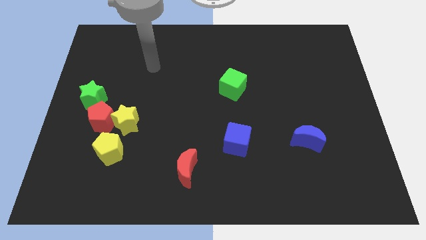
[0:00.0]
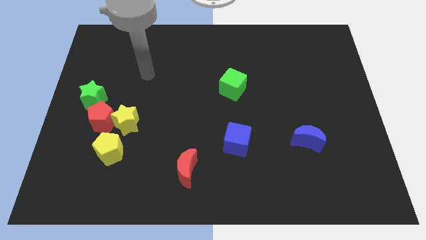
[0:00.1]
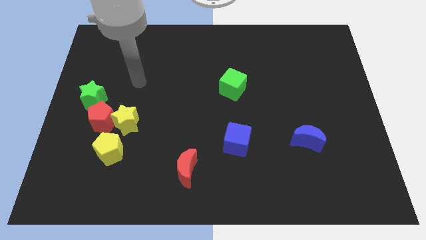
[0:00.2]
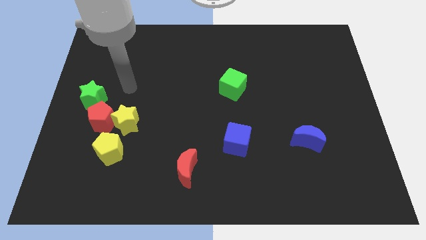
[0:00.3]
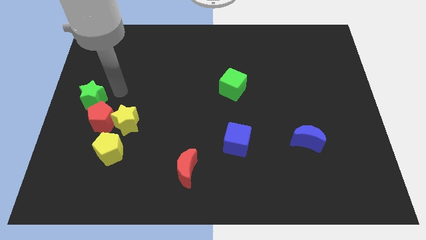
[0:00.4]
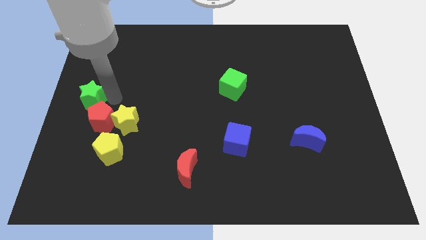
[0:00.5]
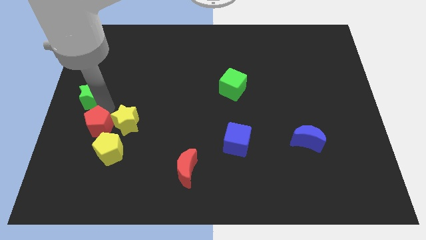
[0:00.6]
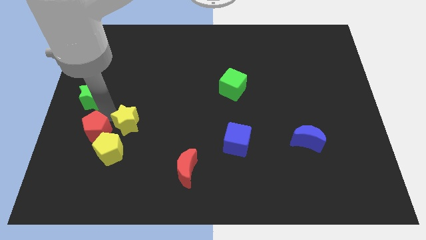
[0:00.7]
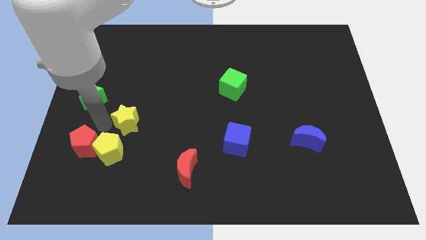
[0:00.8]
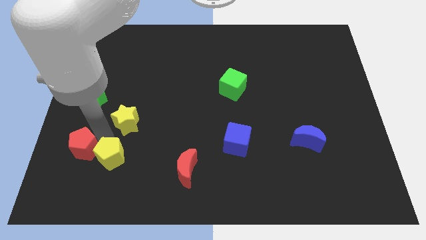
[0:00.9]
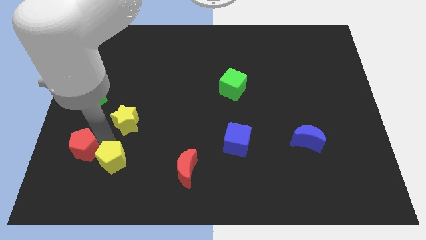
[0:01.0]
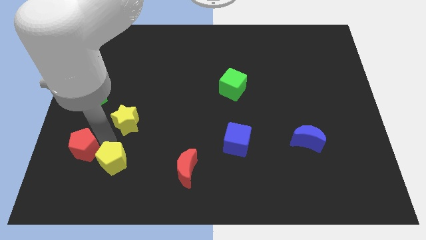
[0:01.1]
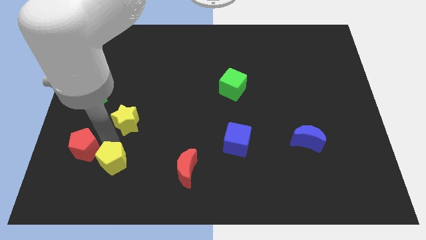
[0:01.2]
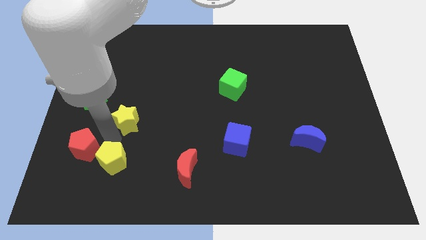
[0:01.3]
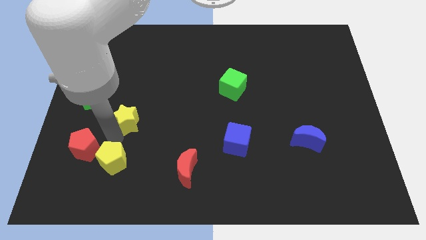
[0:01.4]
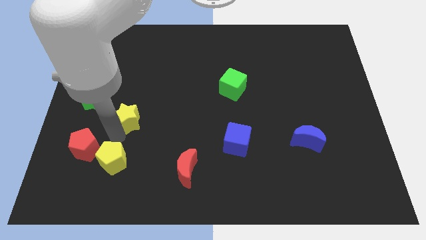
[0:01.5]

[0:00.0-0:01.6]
pull the yellow star apart from the red pentagon and yellow pentagon

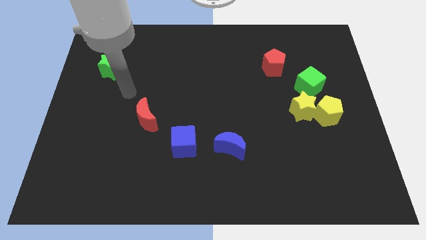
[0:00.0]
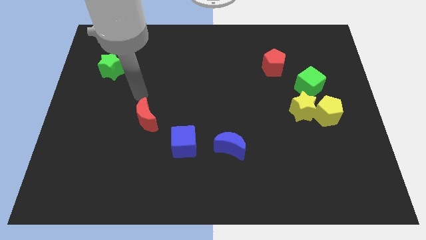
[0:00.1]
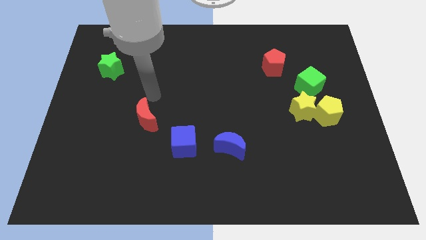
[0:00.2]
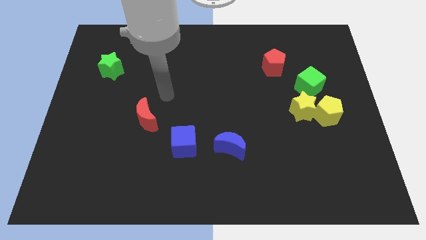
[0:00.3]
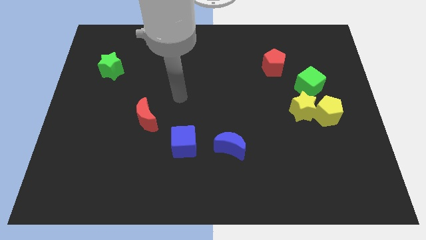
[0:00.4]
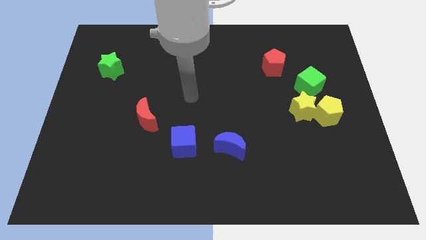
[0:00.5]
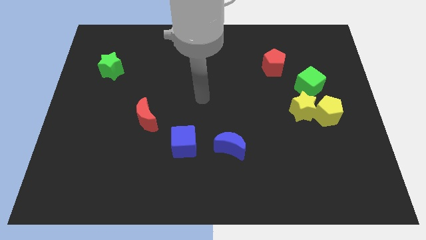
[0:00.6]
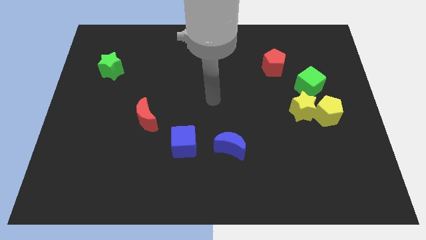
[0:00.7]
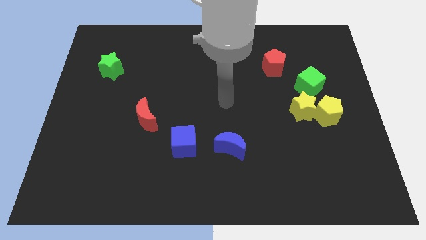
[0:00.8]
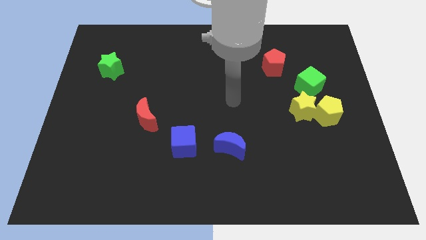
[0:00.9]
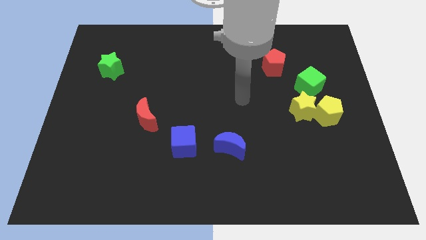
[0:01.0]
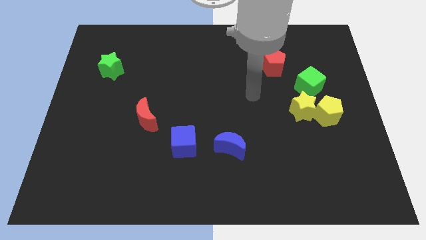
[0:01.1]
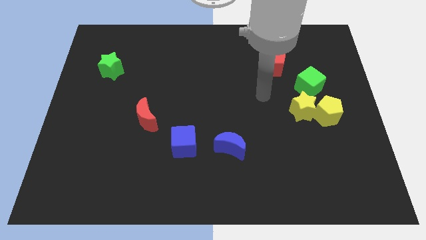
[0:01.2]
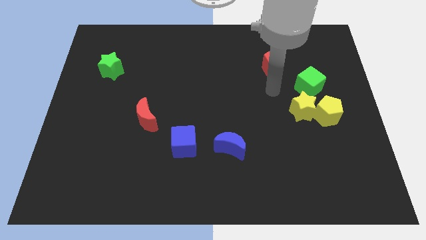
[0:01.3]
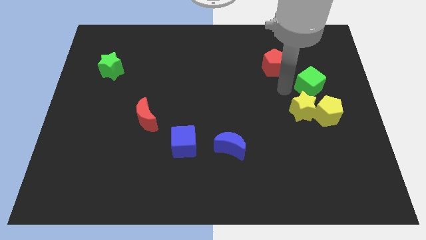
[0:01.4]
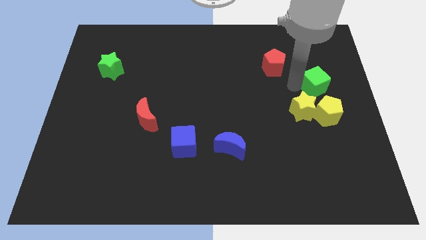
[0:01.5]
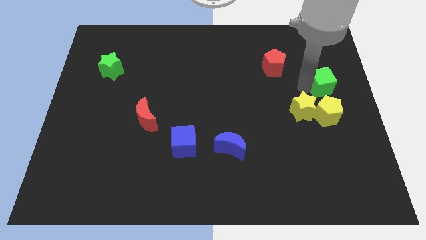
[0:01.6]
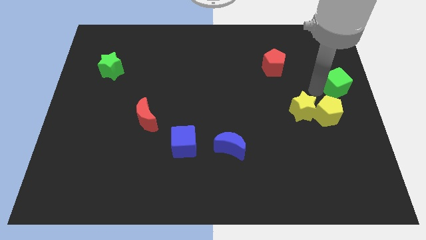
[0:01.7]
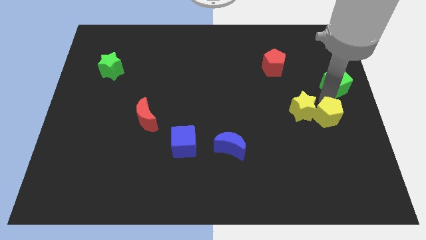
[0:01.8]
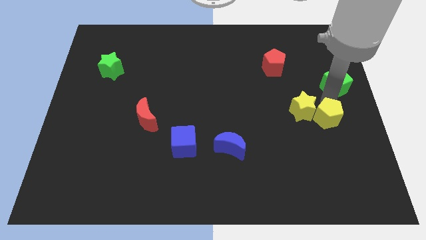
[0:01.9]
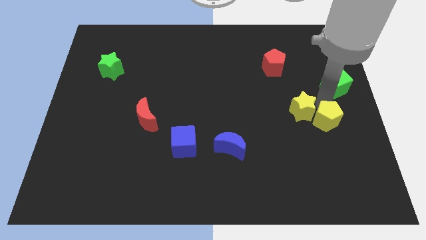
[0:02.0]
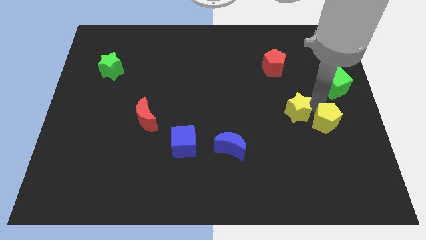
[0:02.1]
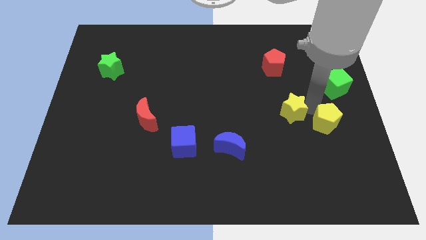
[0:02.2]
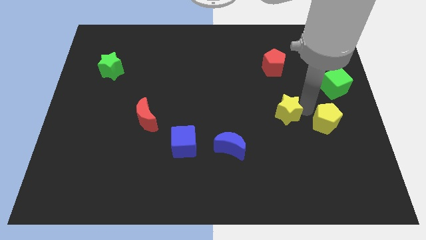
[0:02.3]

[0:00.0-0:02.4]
separate the yellow star from the yellow pentagon and green cube

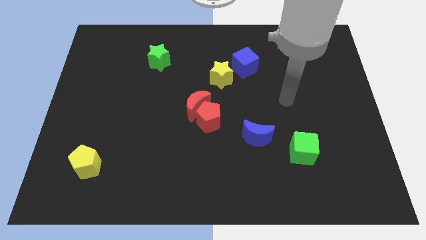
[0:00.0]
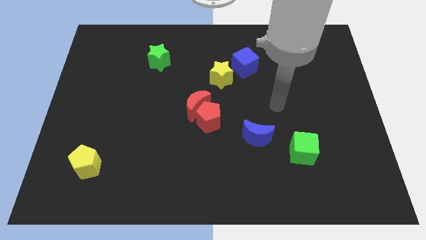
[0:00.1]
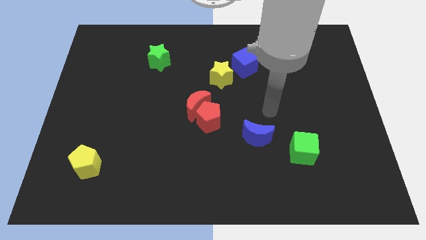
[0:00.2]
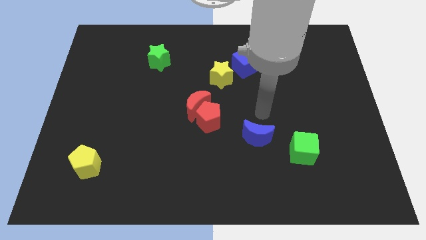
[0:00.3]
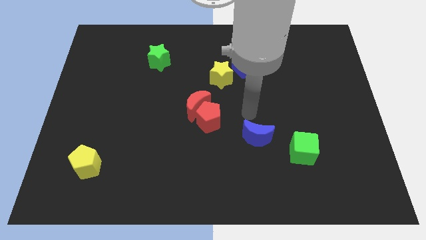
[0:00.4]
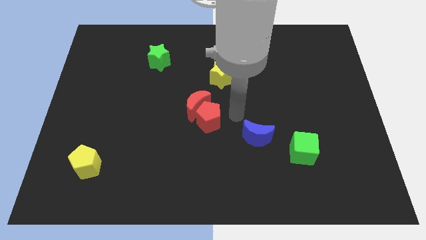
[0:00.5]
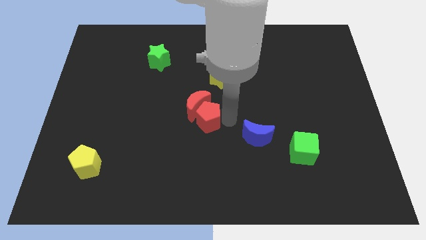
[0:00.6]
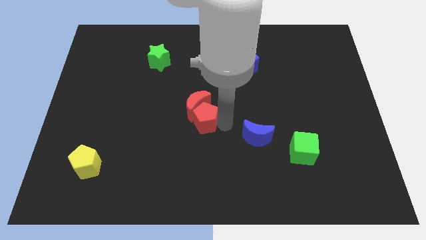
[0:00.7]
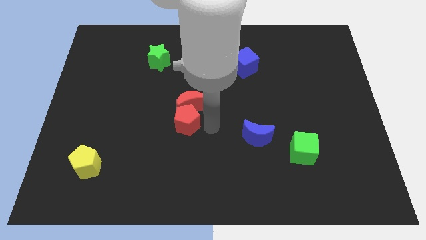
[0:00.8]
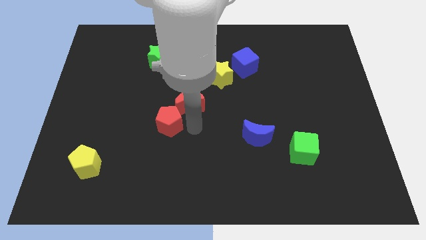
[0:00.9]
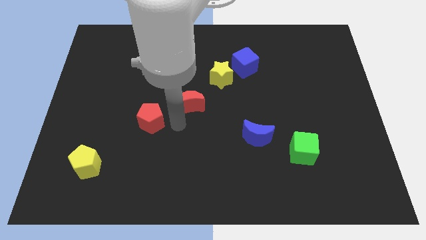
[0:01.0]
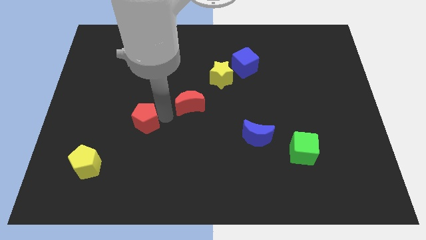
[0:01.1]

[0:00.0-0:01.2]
pull the red moon apart from the red pentagon

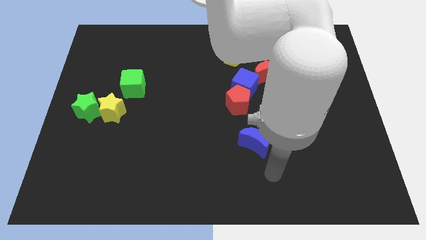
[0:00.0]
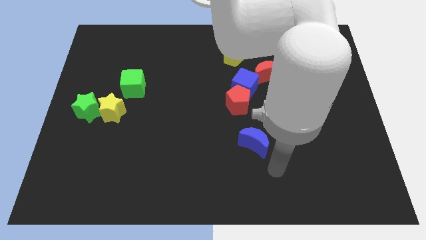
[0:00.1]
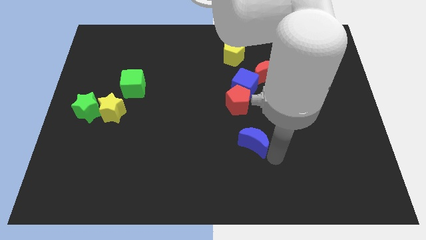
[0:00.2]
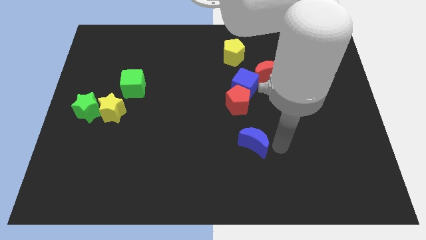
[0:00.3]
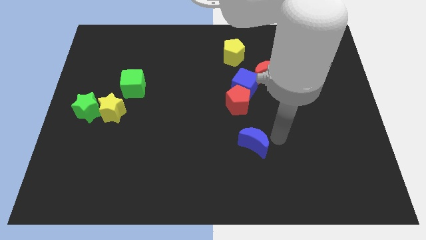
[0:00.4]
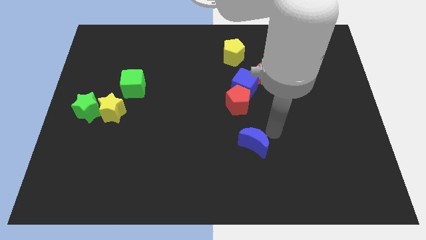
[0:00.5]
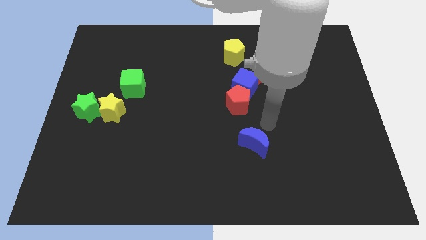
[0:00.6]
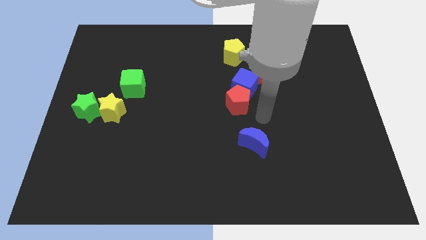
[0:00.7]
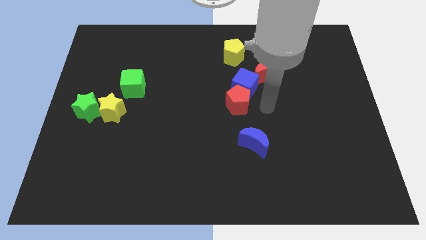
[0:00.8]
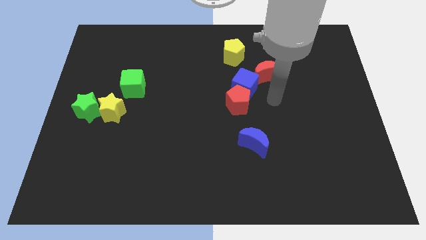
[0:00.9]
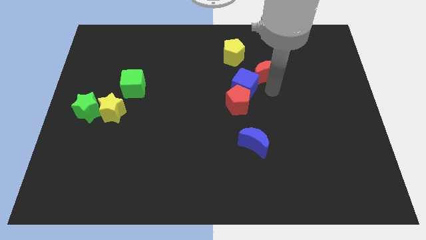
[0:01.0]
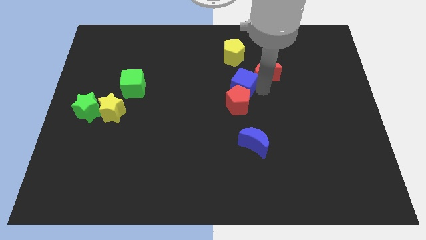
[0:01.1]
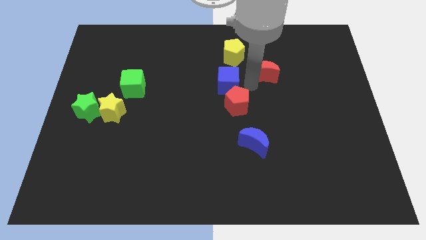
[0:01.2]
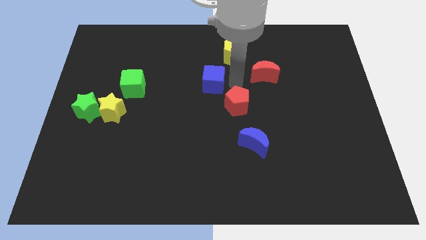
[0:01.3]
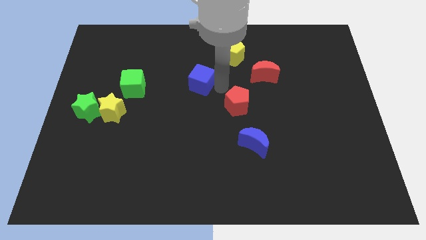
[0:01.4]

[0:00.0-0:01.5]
pull the red pentagon apart from the blue cube

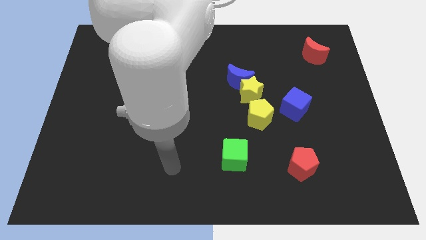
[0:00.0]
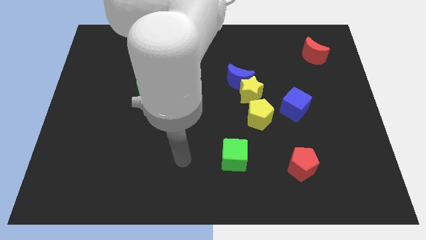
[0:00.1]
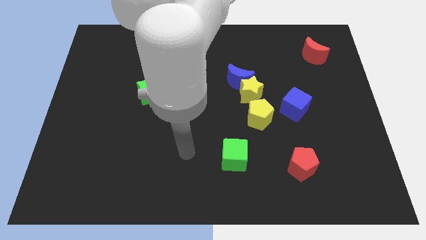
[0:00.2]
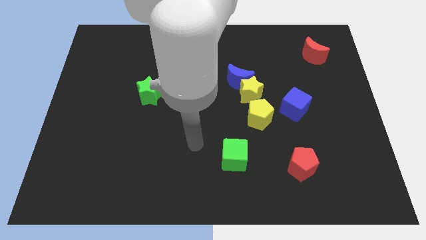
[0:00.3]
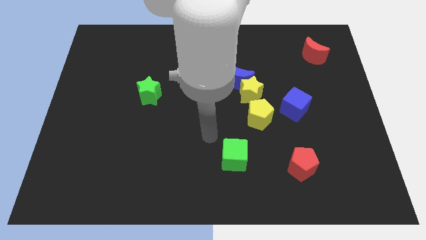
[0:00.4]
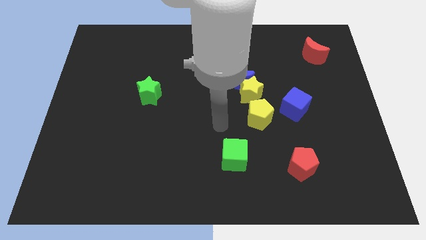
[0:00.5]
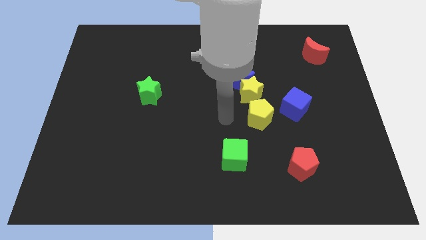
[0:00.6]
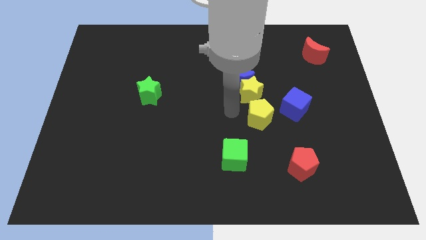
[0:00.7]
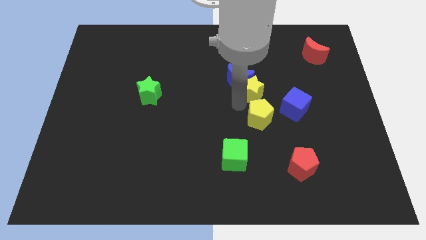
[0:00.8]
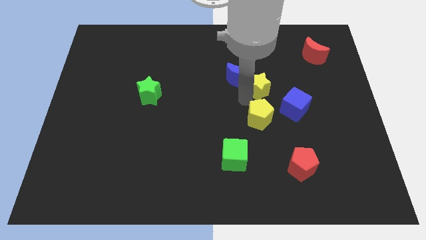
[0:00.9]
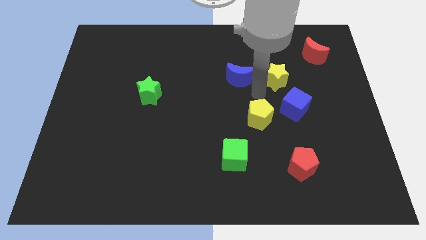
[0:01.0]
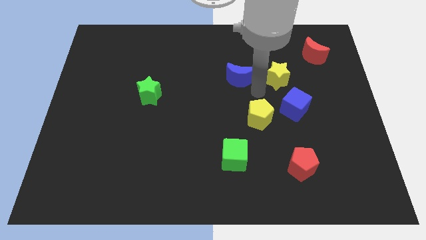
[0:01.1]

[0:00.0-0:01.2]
move the blue moon away from the yellow star

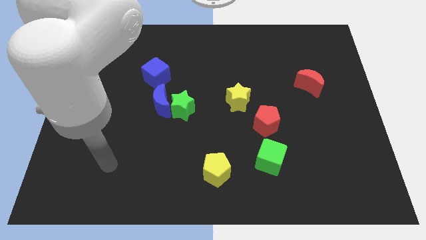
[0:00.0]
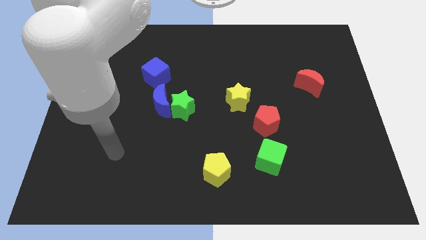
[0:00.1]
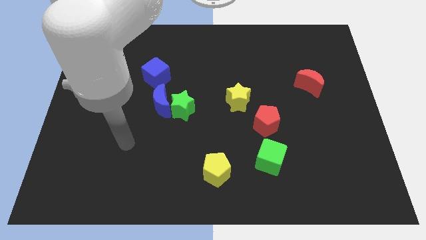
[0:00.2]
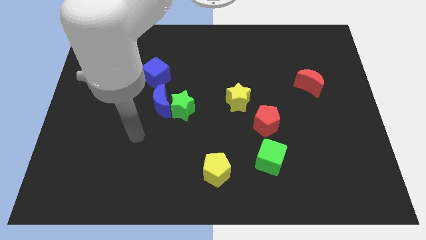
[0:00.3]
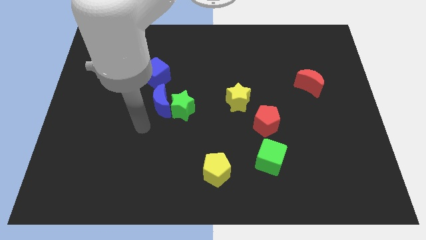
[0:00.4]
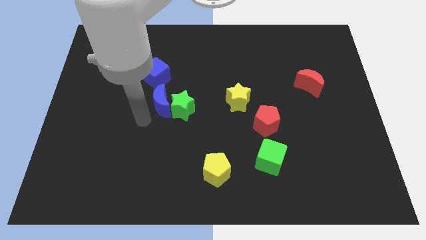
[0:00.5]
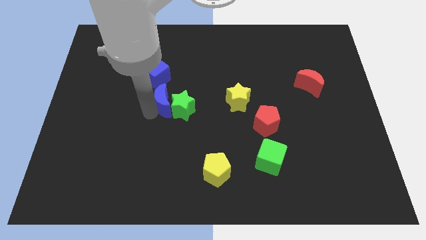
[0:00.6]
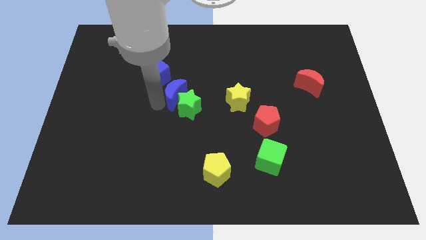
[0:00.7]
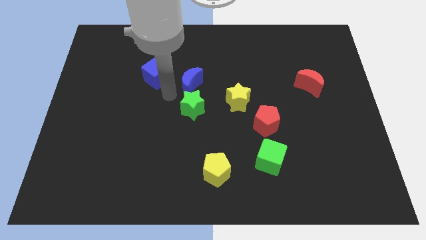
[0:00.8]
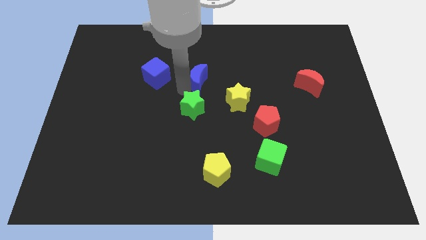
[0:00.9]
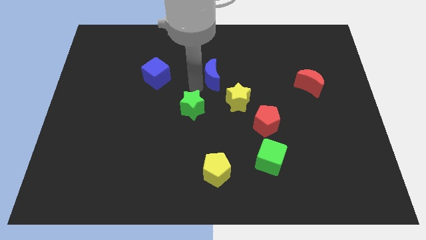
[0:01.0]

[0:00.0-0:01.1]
separate the green star from the blue moon

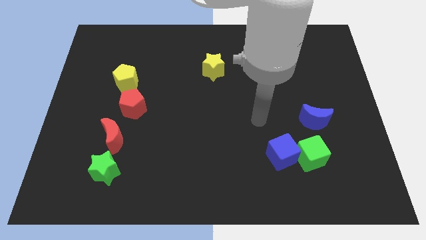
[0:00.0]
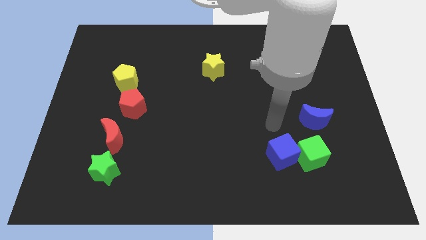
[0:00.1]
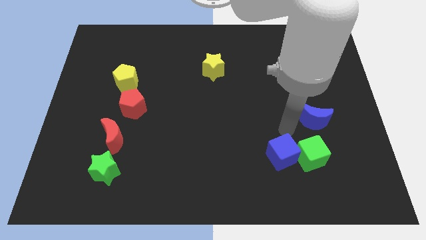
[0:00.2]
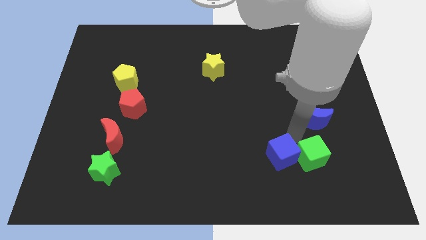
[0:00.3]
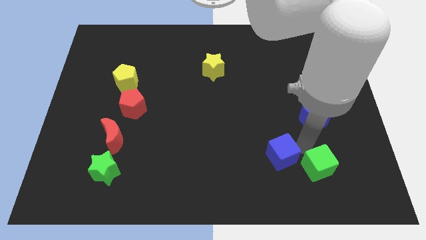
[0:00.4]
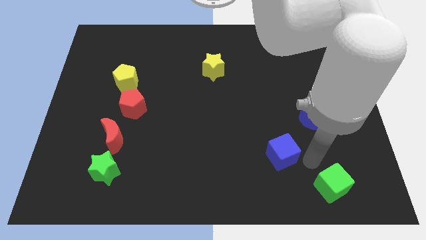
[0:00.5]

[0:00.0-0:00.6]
move the blue cube away from the green cube
